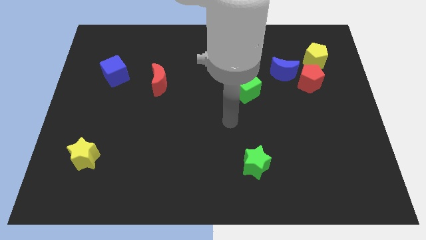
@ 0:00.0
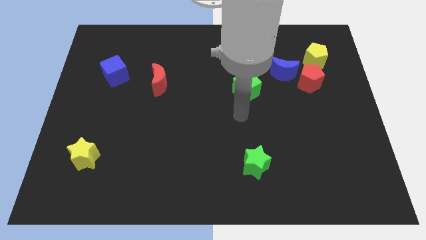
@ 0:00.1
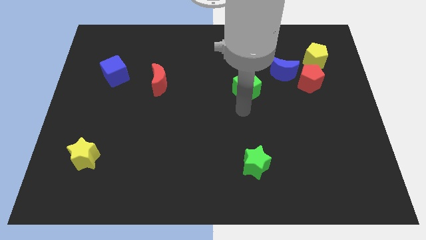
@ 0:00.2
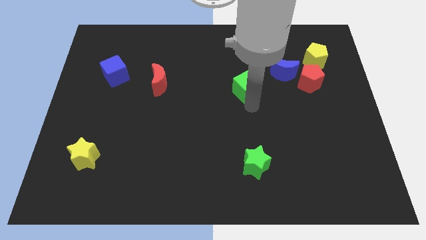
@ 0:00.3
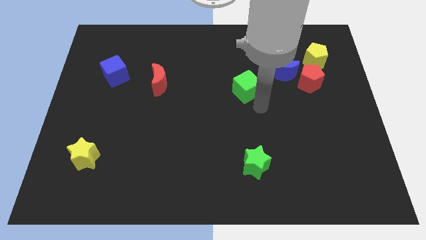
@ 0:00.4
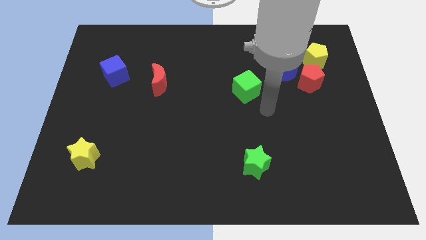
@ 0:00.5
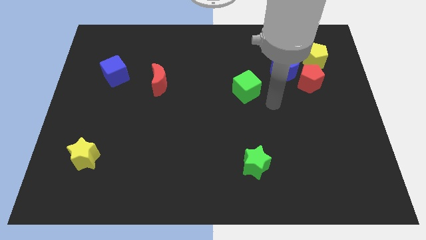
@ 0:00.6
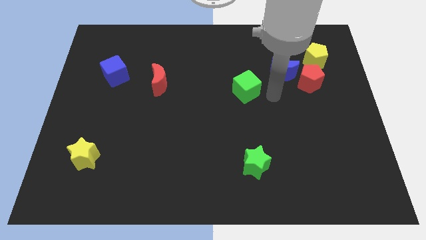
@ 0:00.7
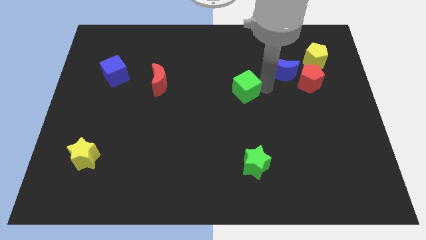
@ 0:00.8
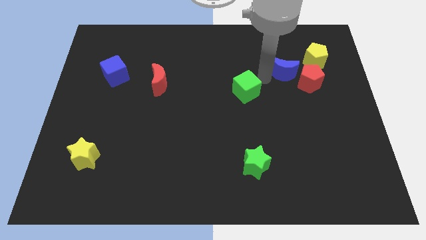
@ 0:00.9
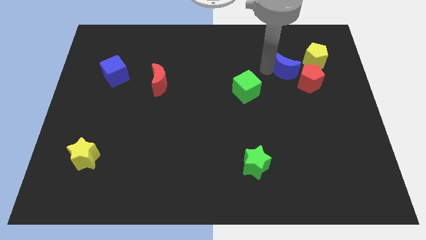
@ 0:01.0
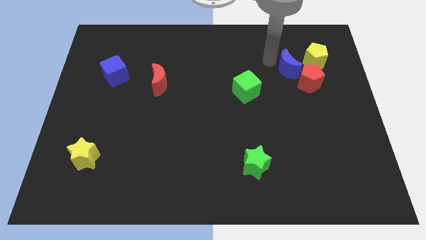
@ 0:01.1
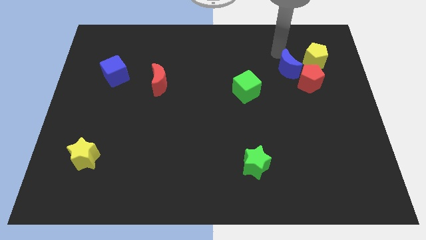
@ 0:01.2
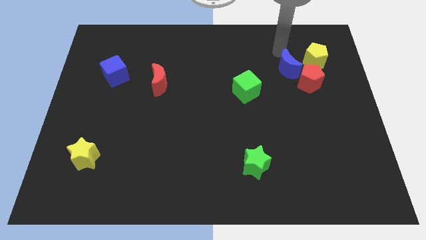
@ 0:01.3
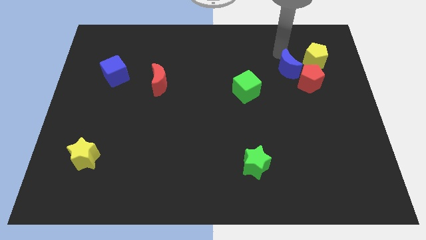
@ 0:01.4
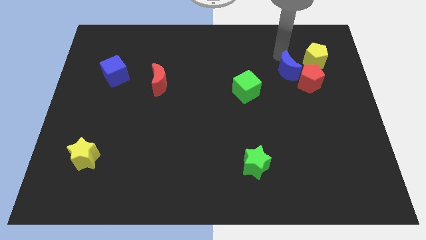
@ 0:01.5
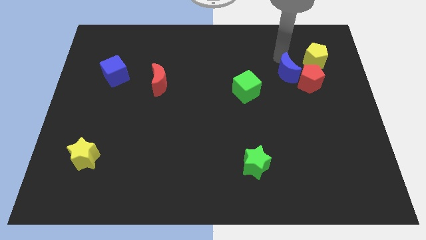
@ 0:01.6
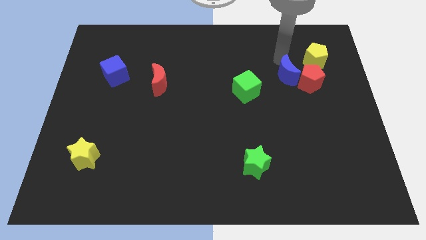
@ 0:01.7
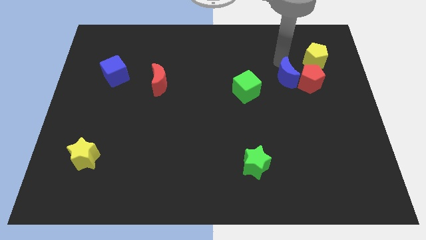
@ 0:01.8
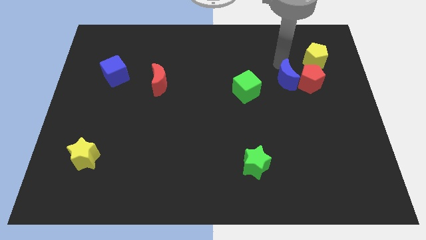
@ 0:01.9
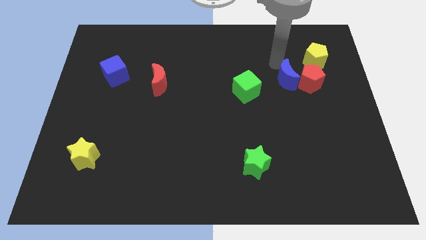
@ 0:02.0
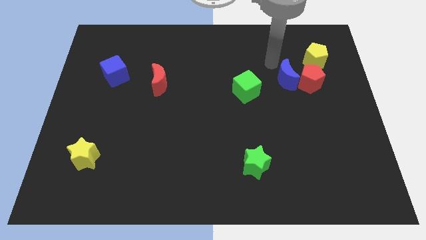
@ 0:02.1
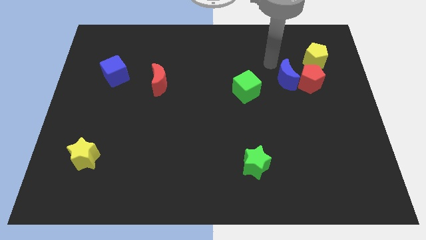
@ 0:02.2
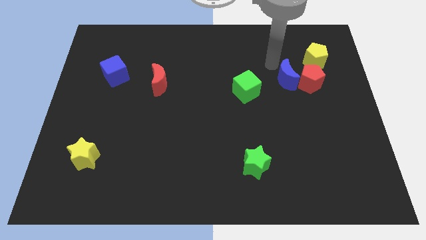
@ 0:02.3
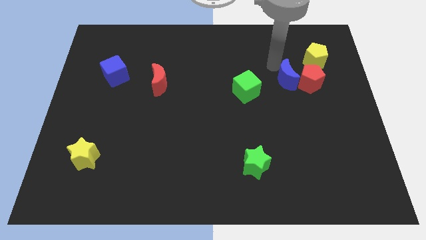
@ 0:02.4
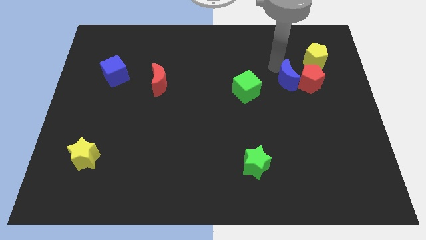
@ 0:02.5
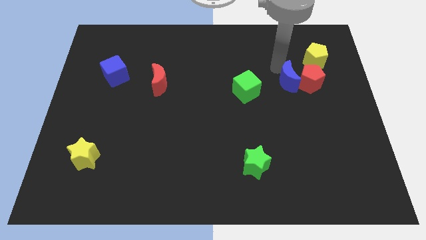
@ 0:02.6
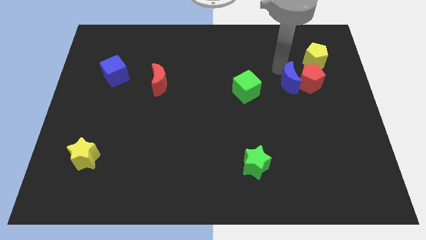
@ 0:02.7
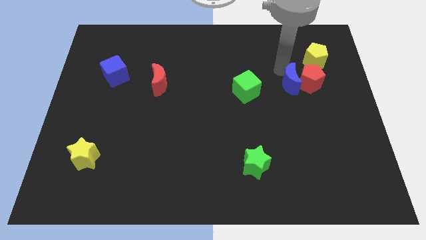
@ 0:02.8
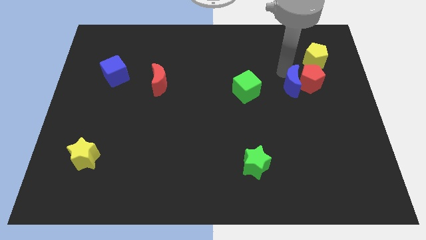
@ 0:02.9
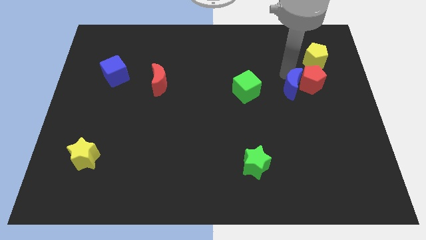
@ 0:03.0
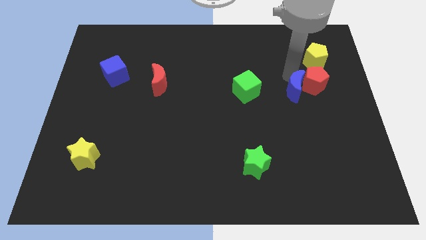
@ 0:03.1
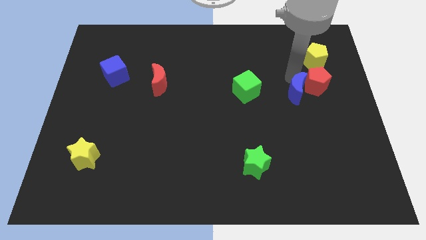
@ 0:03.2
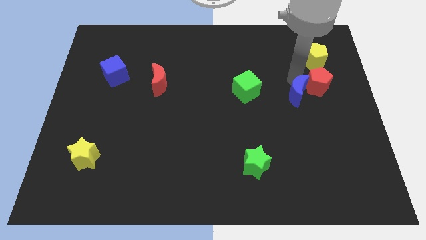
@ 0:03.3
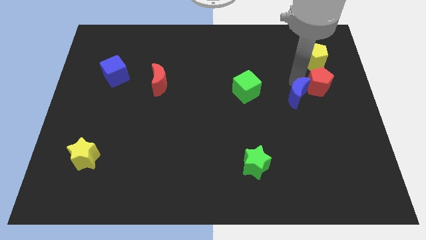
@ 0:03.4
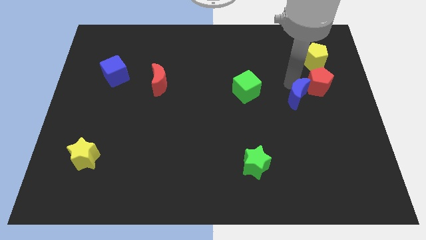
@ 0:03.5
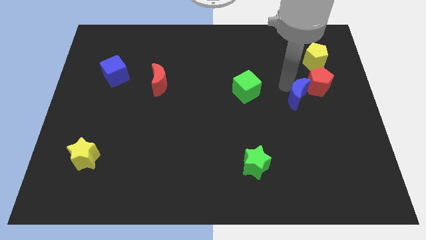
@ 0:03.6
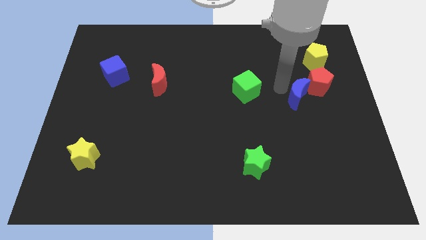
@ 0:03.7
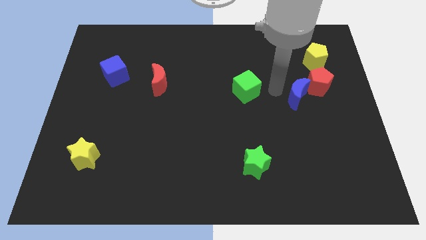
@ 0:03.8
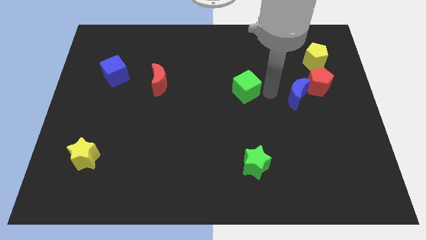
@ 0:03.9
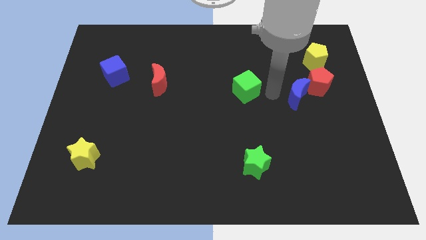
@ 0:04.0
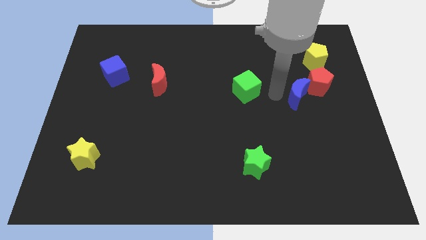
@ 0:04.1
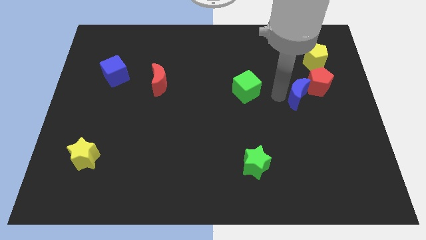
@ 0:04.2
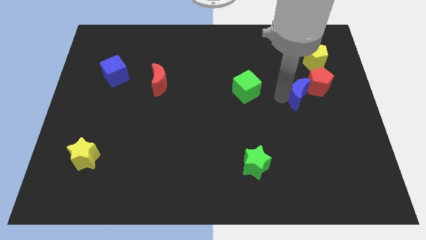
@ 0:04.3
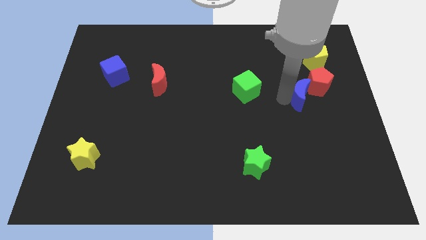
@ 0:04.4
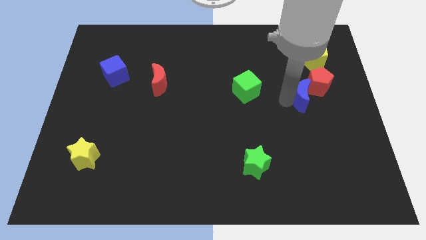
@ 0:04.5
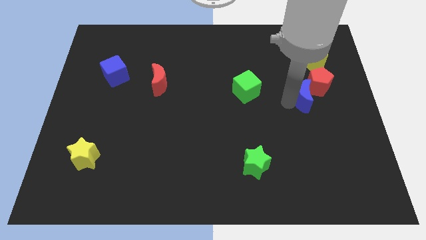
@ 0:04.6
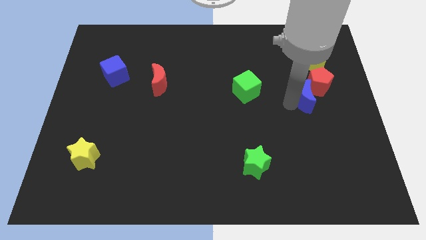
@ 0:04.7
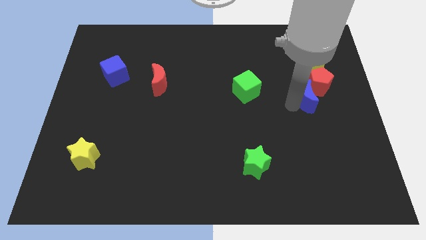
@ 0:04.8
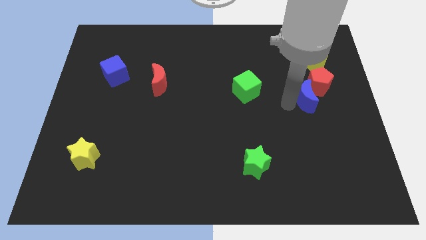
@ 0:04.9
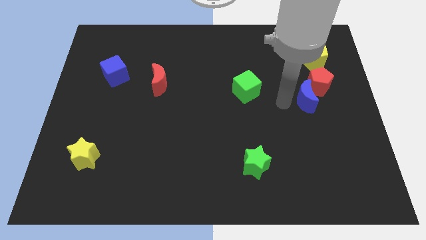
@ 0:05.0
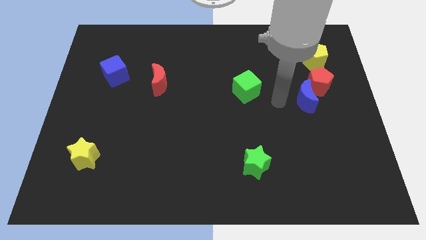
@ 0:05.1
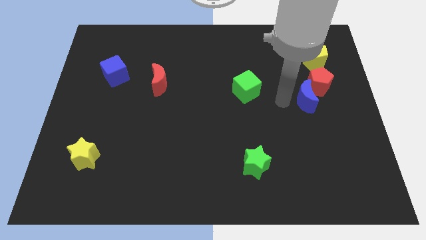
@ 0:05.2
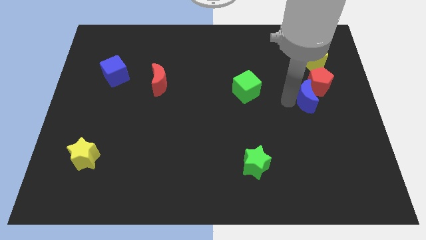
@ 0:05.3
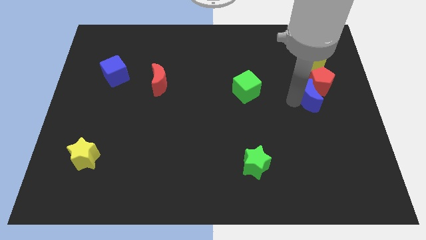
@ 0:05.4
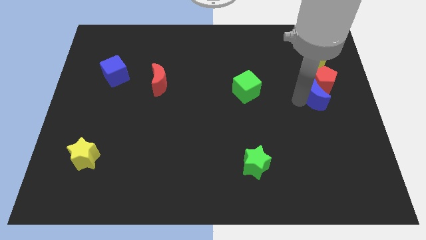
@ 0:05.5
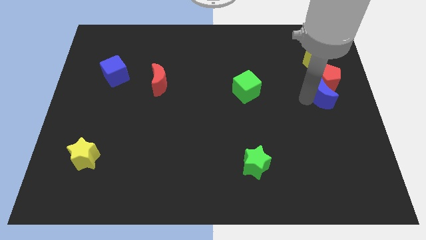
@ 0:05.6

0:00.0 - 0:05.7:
move the blue moon to the right side of the board

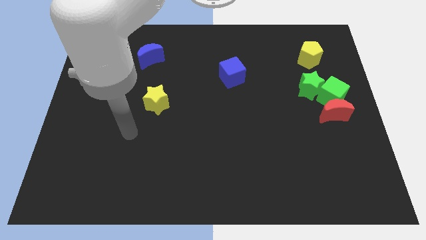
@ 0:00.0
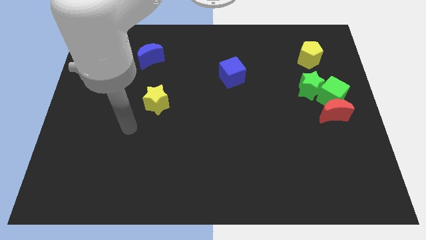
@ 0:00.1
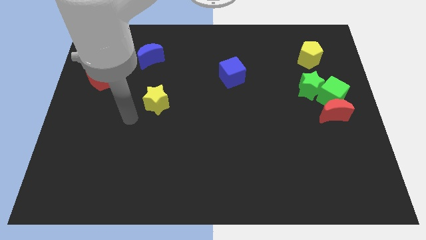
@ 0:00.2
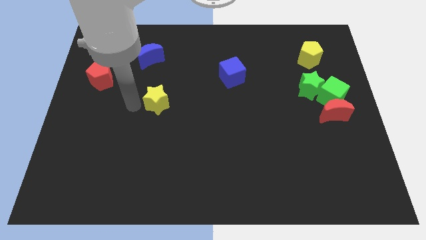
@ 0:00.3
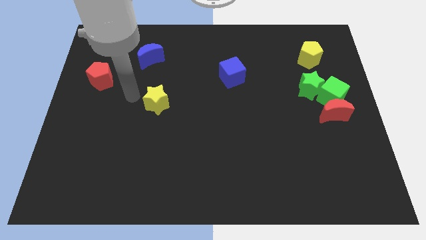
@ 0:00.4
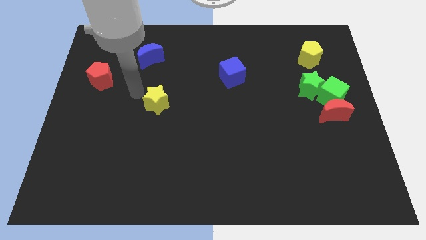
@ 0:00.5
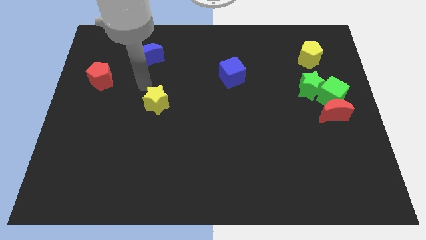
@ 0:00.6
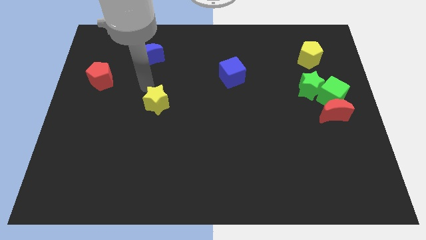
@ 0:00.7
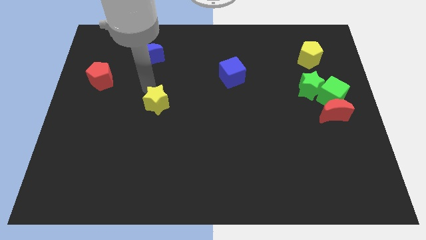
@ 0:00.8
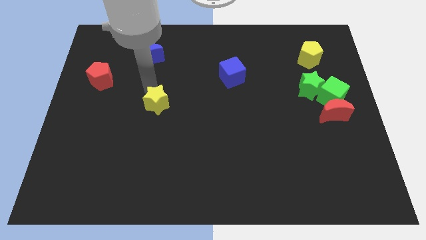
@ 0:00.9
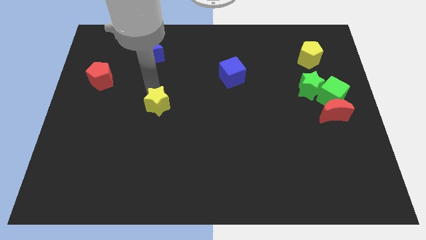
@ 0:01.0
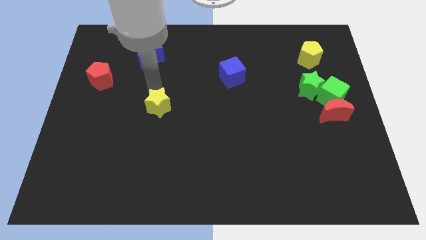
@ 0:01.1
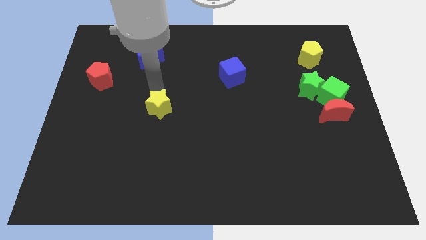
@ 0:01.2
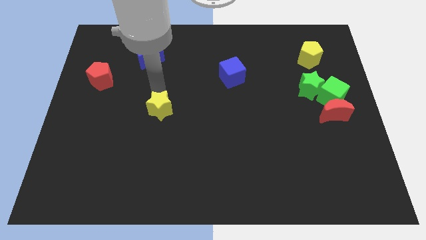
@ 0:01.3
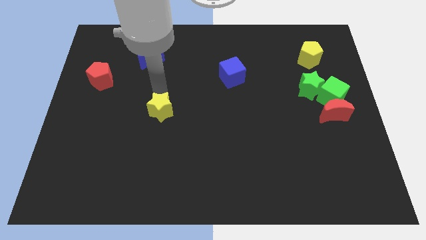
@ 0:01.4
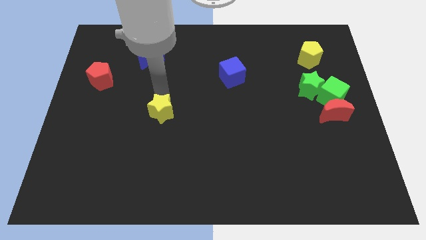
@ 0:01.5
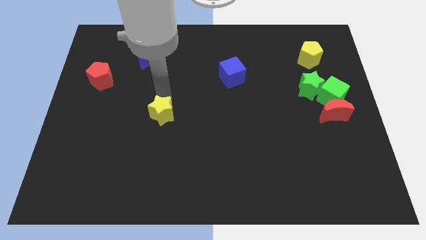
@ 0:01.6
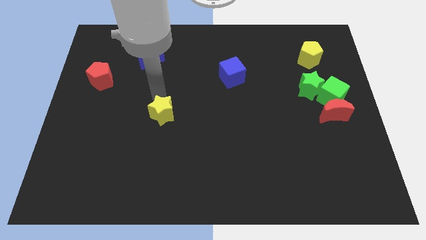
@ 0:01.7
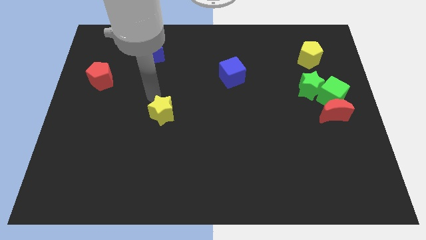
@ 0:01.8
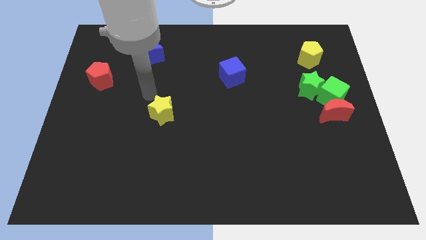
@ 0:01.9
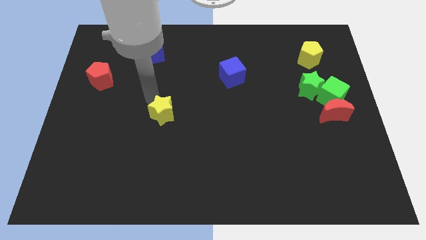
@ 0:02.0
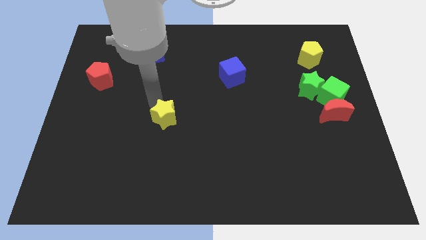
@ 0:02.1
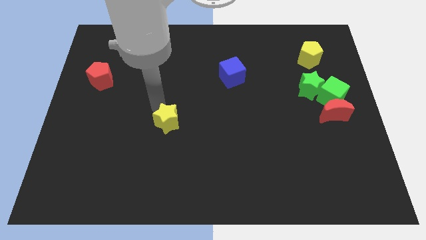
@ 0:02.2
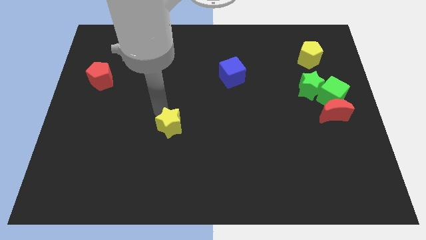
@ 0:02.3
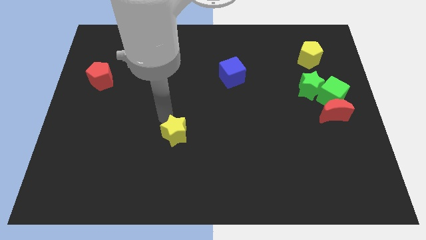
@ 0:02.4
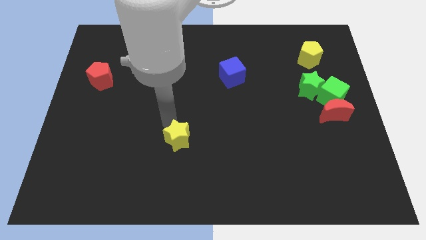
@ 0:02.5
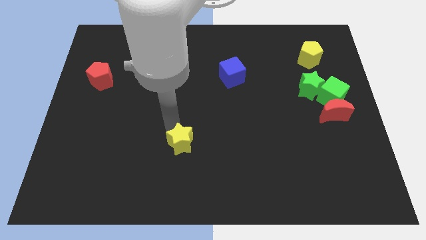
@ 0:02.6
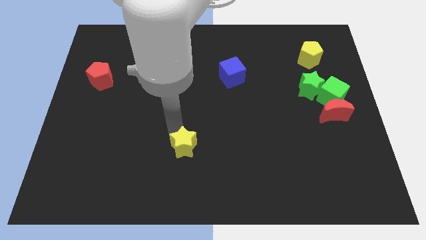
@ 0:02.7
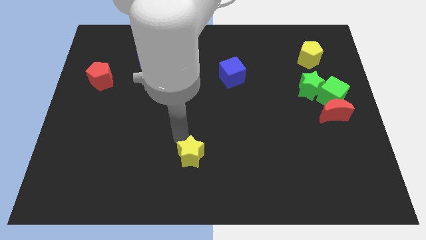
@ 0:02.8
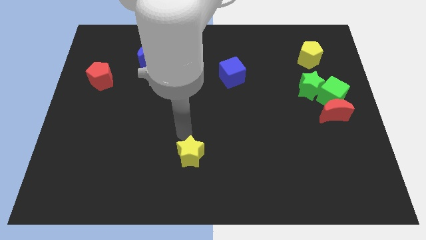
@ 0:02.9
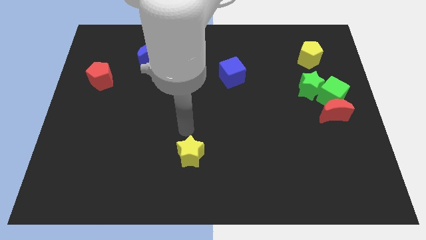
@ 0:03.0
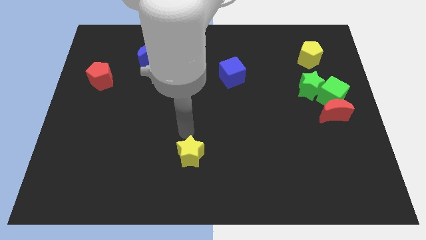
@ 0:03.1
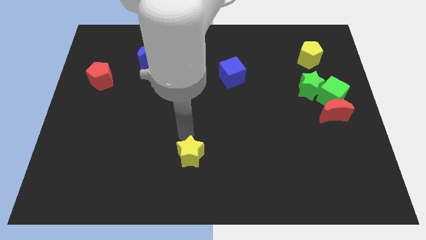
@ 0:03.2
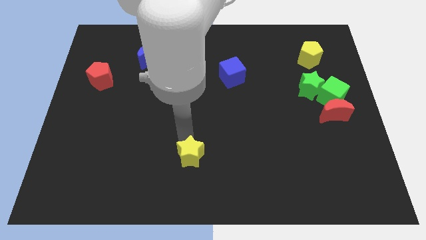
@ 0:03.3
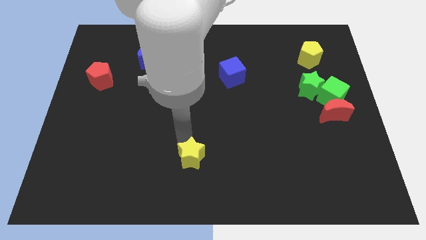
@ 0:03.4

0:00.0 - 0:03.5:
push the yellow star to the bottom
